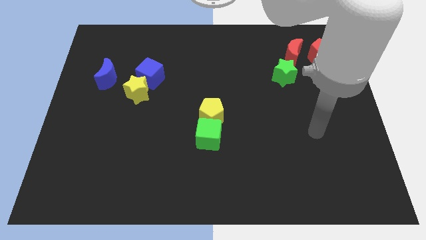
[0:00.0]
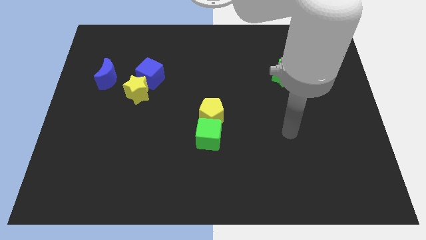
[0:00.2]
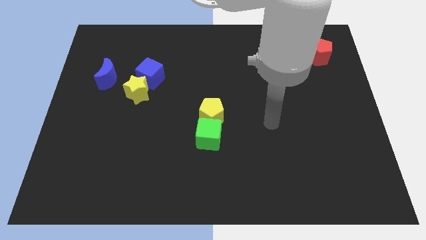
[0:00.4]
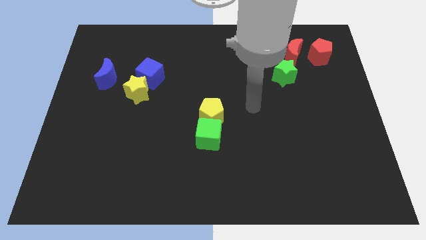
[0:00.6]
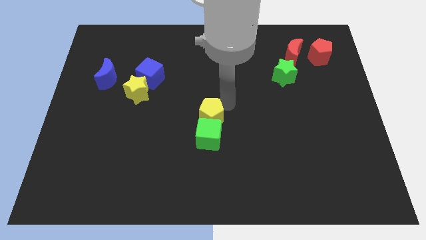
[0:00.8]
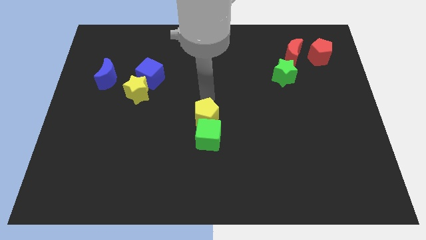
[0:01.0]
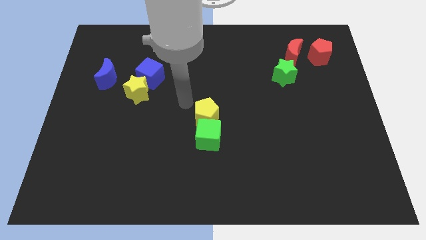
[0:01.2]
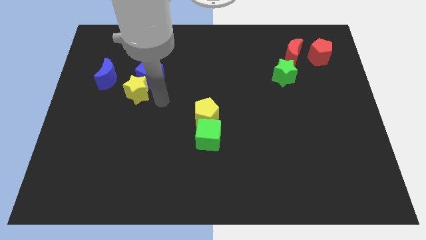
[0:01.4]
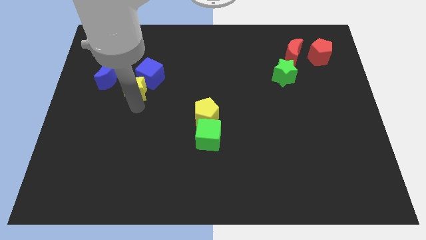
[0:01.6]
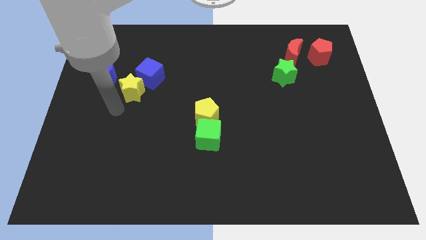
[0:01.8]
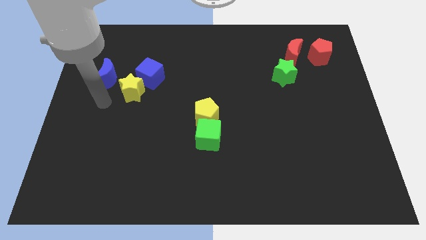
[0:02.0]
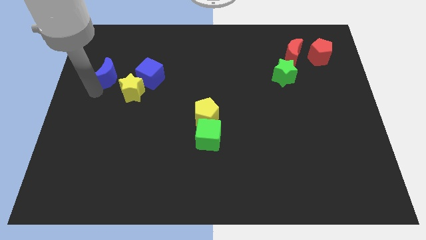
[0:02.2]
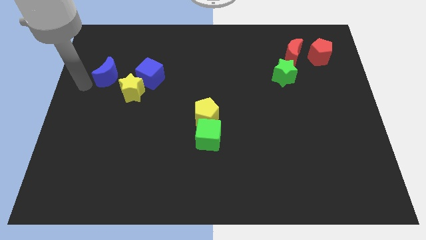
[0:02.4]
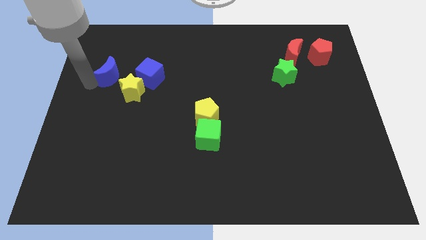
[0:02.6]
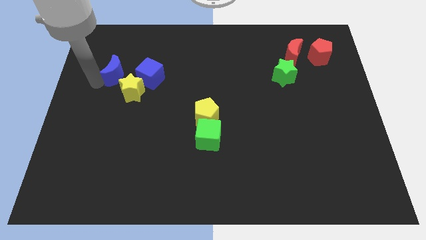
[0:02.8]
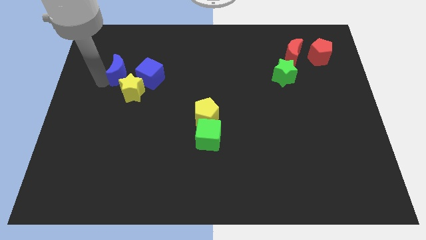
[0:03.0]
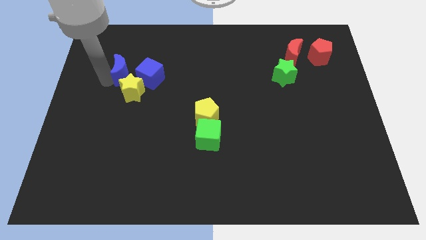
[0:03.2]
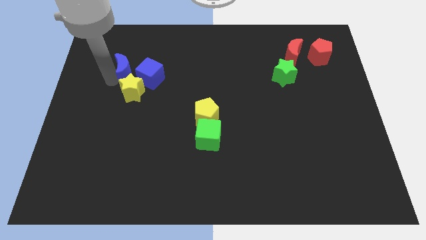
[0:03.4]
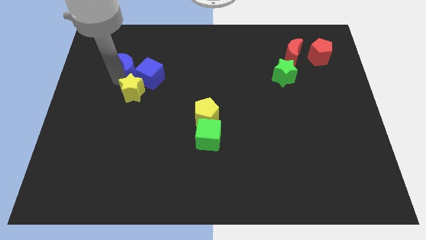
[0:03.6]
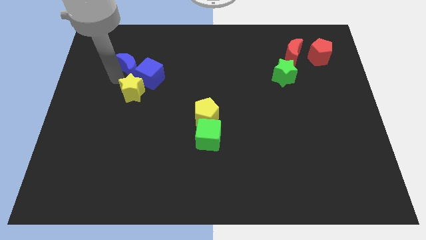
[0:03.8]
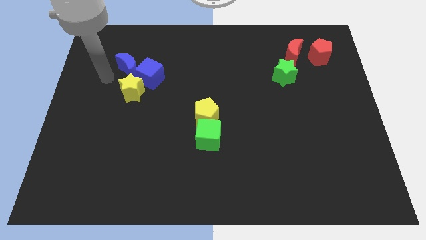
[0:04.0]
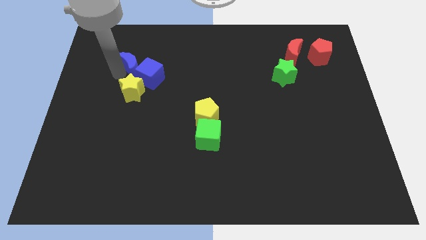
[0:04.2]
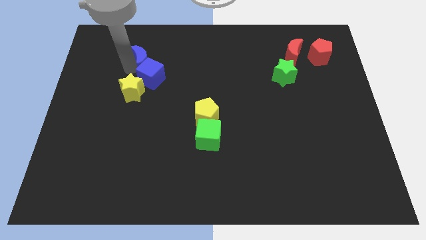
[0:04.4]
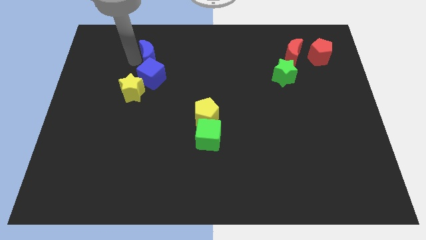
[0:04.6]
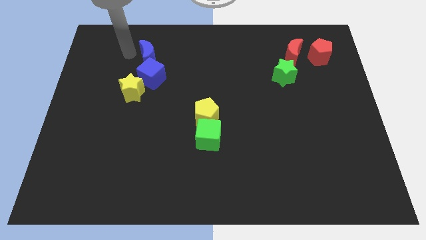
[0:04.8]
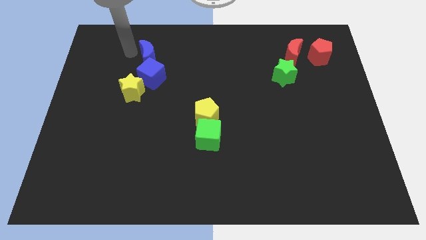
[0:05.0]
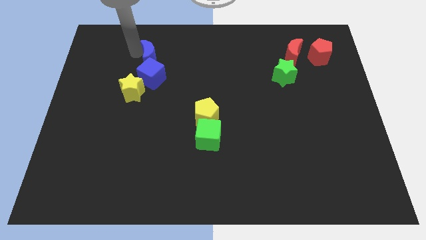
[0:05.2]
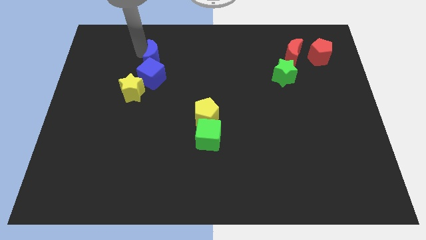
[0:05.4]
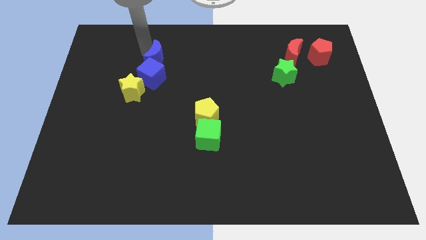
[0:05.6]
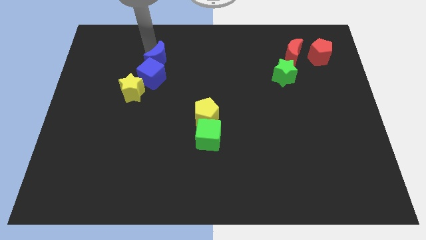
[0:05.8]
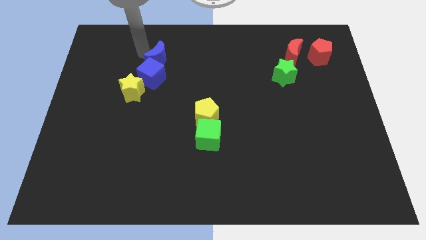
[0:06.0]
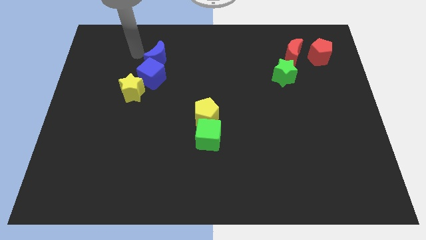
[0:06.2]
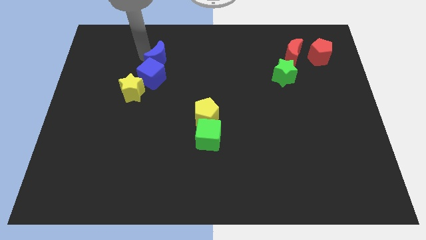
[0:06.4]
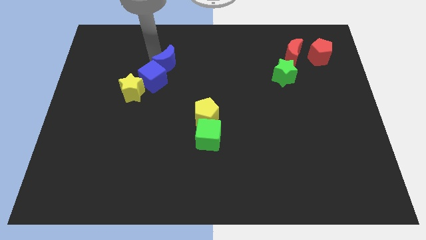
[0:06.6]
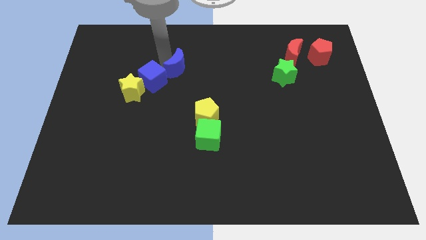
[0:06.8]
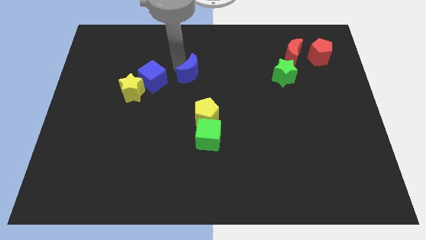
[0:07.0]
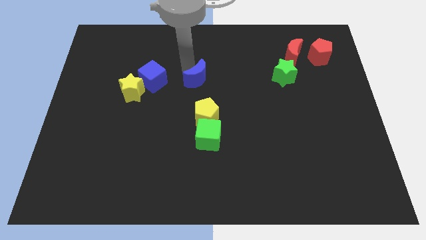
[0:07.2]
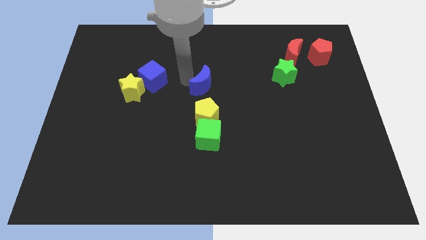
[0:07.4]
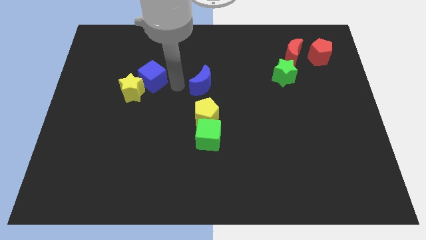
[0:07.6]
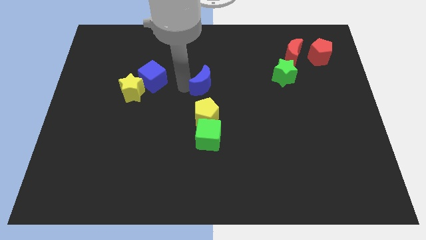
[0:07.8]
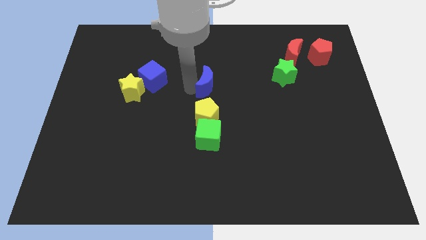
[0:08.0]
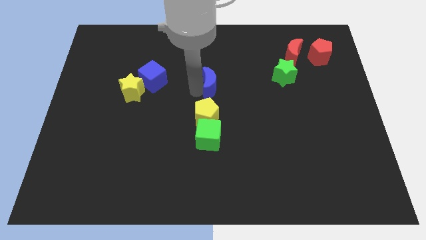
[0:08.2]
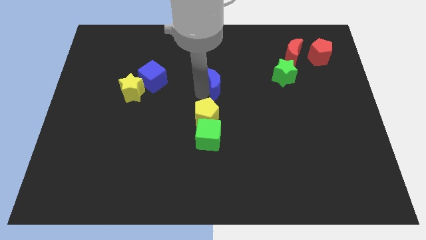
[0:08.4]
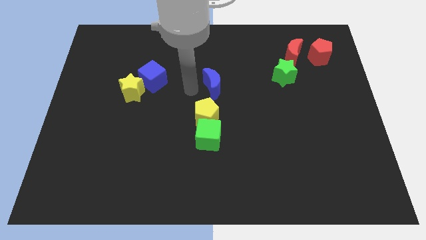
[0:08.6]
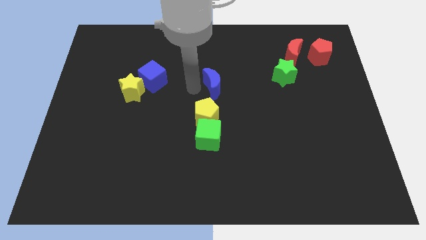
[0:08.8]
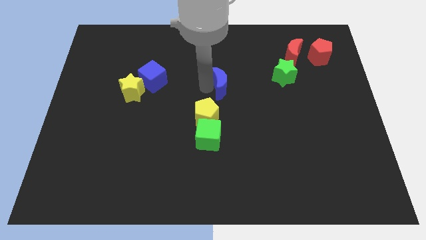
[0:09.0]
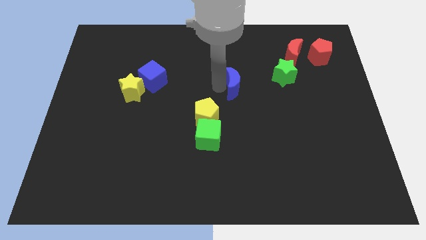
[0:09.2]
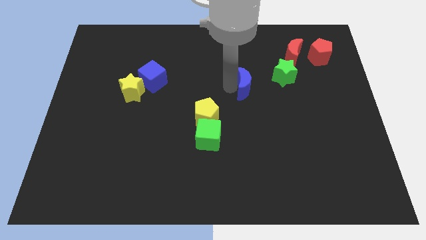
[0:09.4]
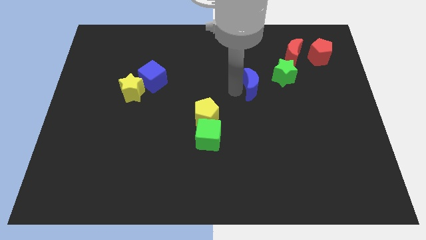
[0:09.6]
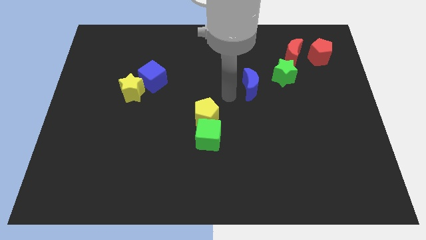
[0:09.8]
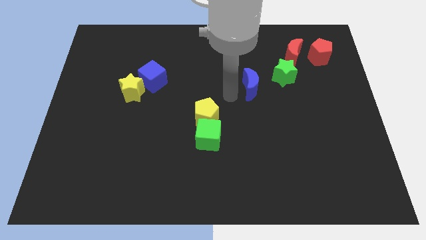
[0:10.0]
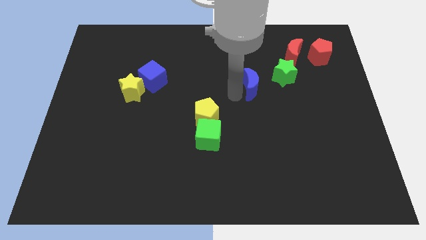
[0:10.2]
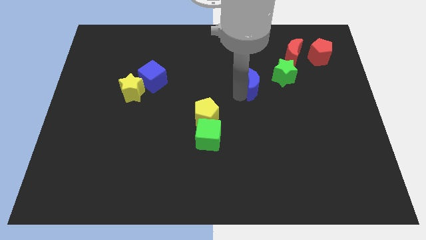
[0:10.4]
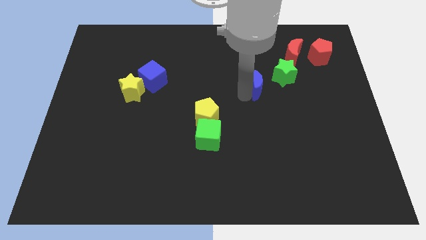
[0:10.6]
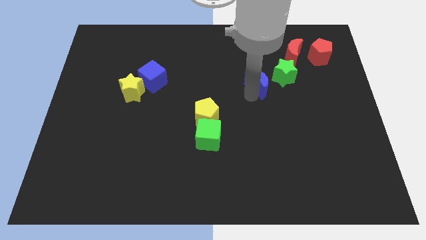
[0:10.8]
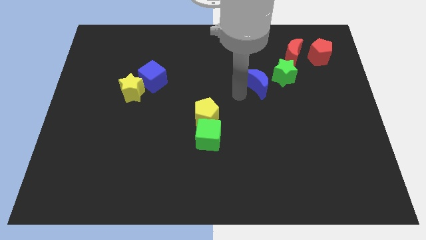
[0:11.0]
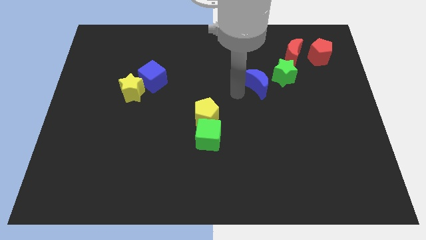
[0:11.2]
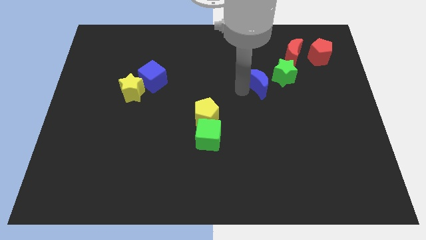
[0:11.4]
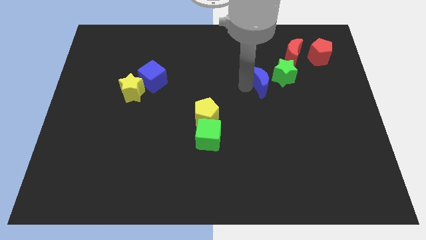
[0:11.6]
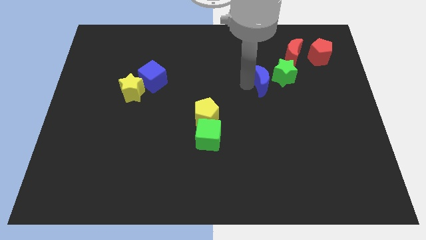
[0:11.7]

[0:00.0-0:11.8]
move the blue moon next to the green star

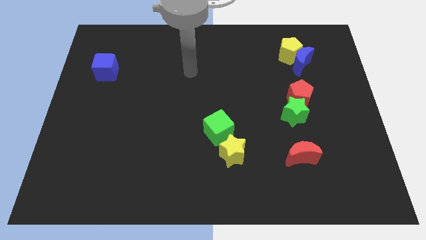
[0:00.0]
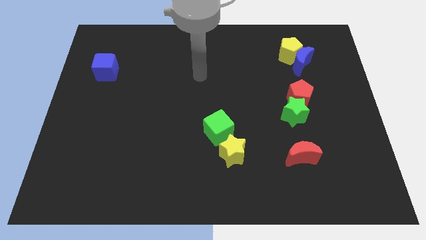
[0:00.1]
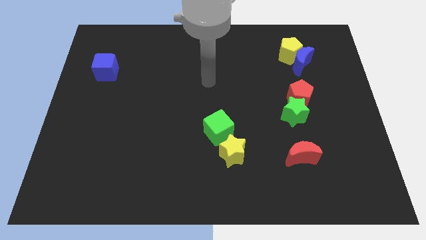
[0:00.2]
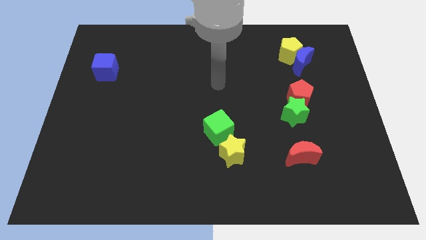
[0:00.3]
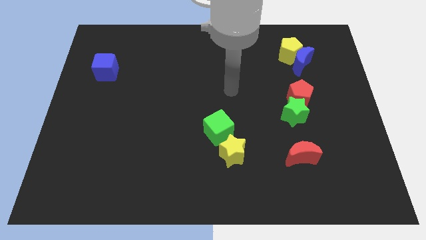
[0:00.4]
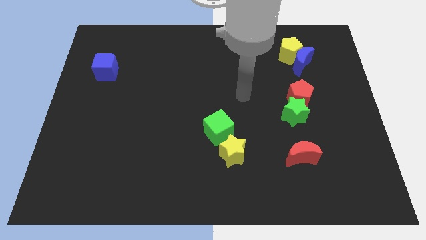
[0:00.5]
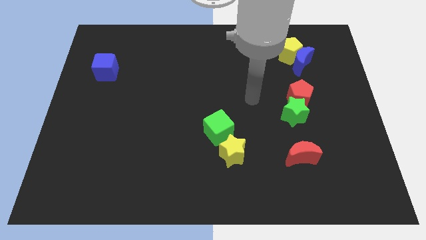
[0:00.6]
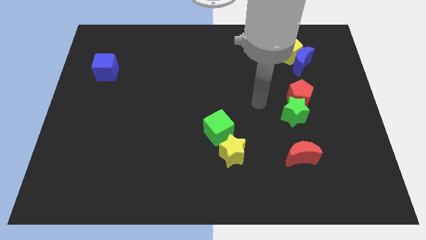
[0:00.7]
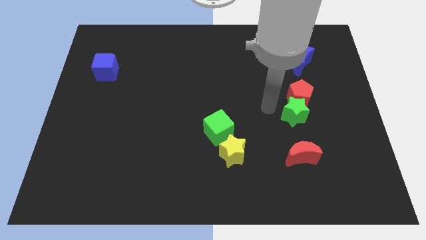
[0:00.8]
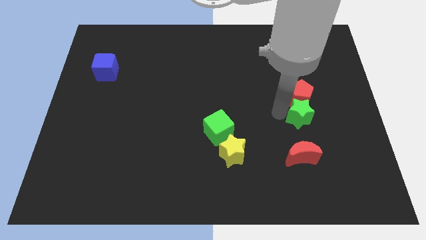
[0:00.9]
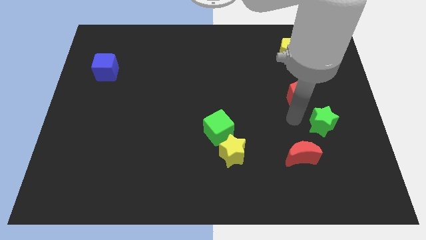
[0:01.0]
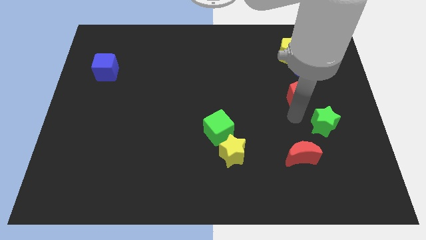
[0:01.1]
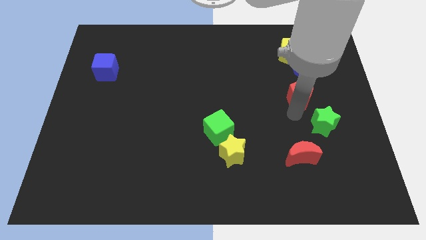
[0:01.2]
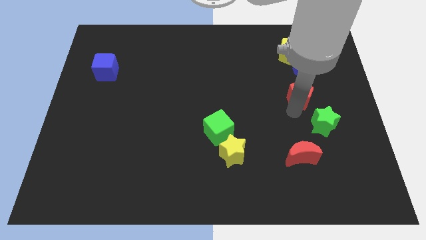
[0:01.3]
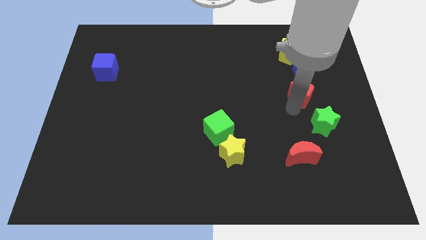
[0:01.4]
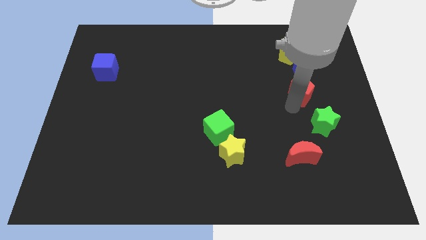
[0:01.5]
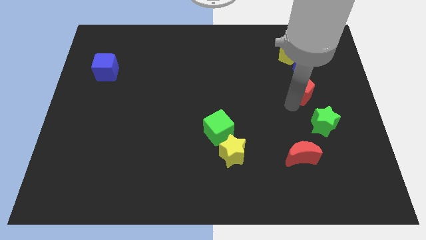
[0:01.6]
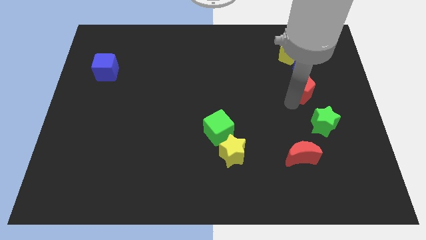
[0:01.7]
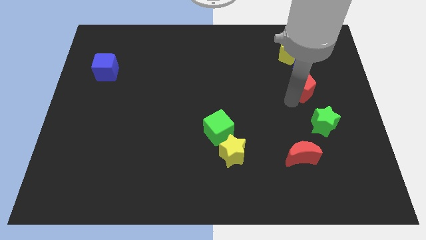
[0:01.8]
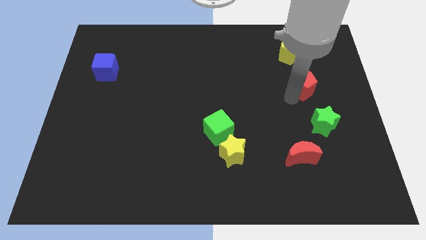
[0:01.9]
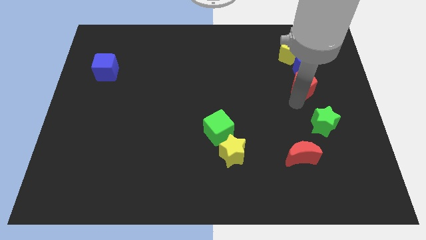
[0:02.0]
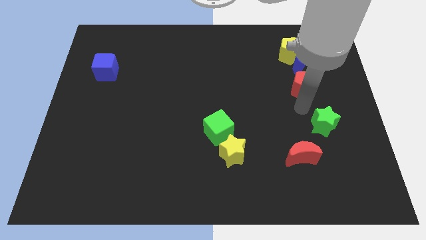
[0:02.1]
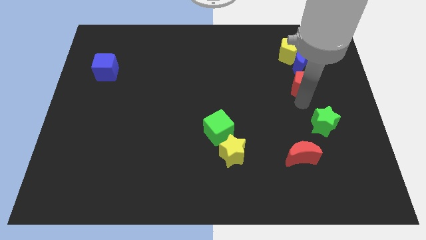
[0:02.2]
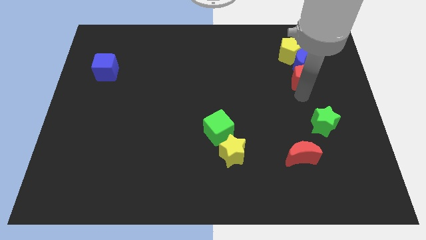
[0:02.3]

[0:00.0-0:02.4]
put the red pentagon to the blue moon
